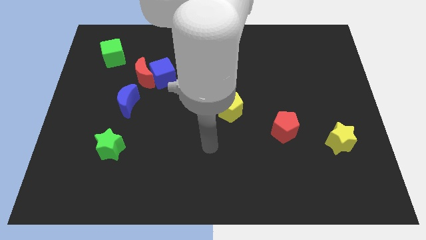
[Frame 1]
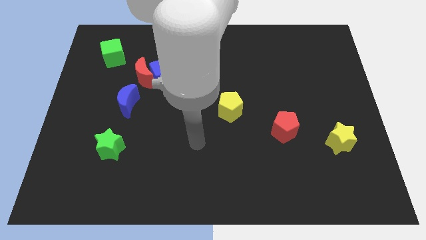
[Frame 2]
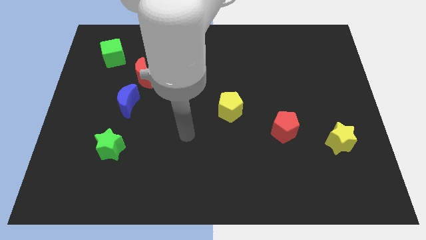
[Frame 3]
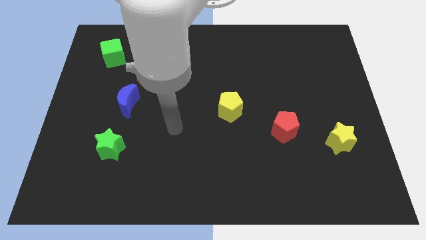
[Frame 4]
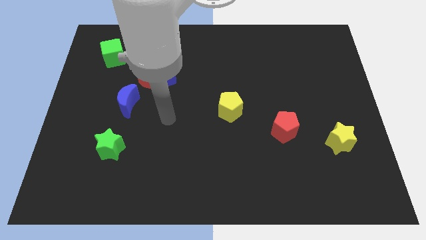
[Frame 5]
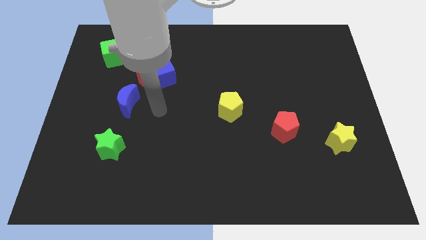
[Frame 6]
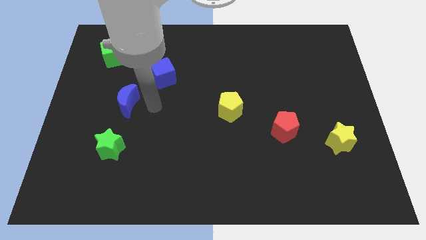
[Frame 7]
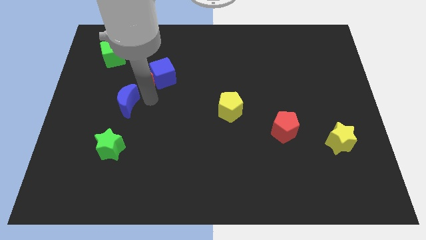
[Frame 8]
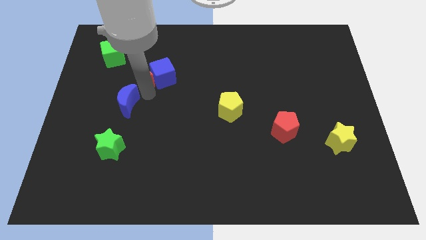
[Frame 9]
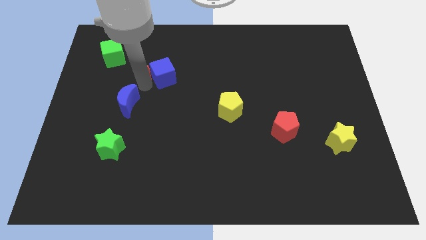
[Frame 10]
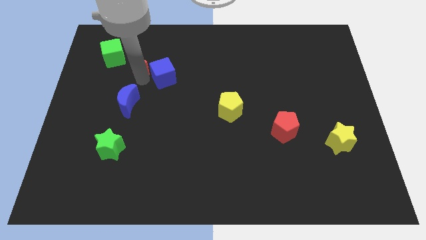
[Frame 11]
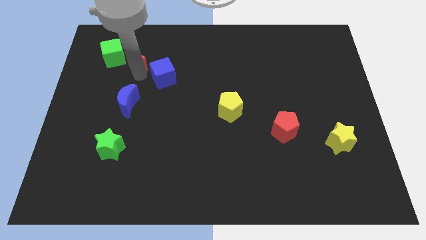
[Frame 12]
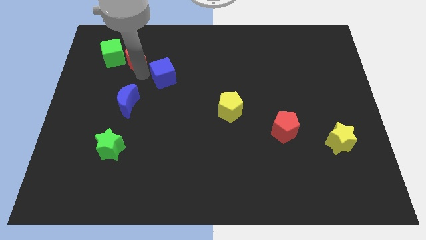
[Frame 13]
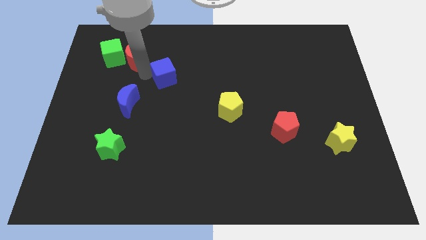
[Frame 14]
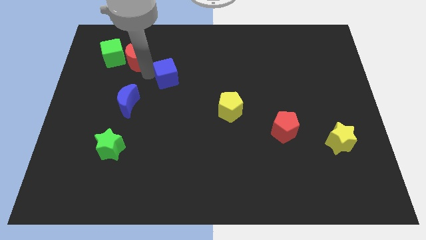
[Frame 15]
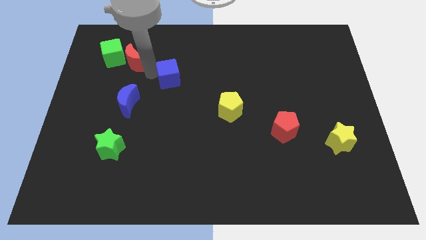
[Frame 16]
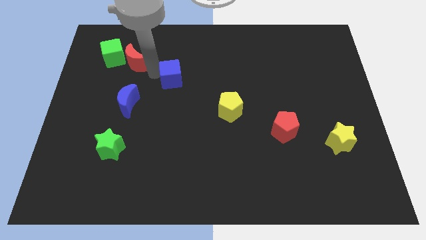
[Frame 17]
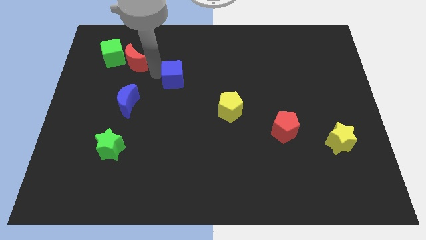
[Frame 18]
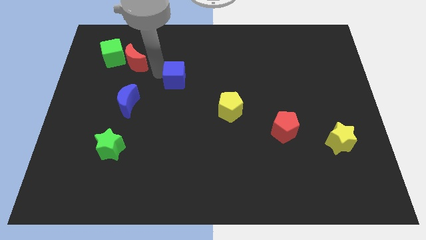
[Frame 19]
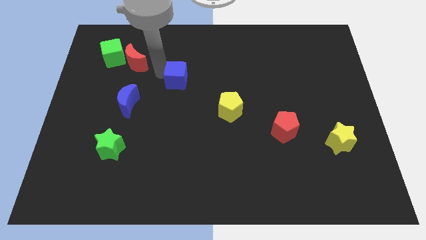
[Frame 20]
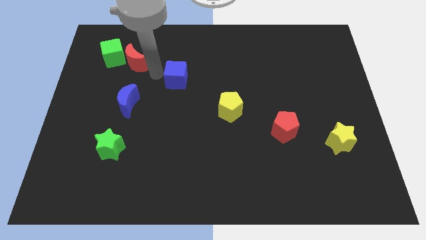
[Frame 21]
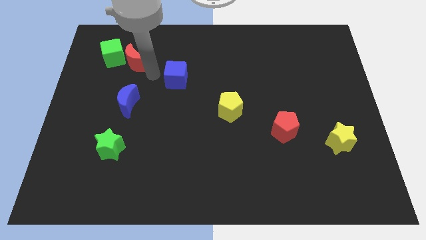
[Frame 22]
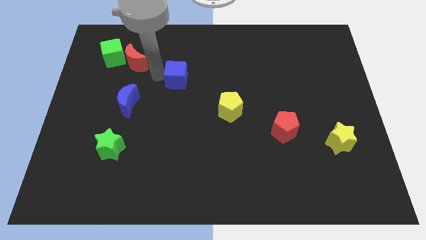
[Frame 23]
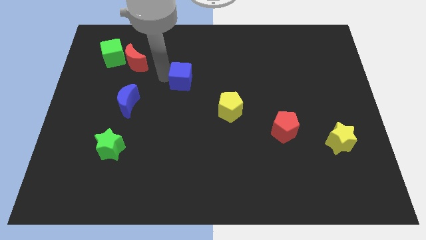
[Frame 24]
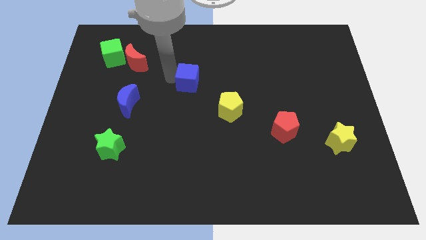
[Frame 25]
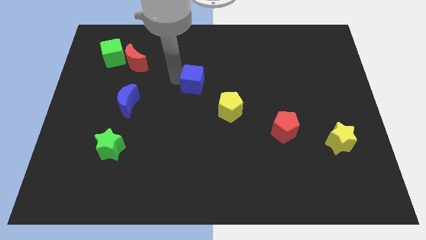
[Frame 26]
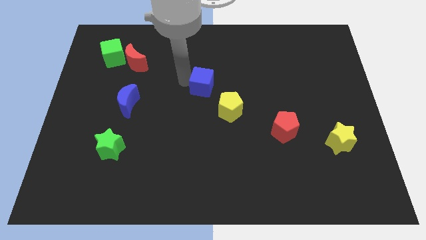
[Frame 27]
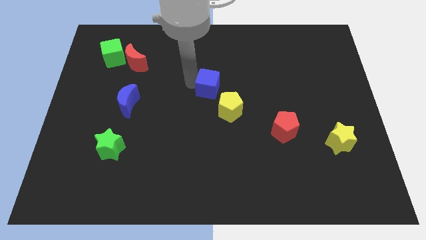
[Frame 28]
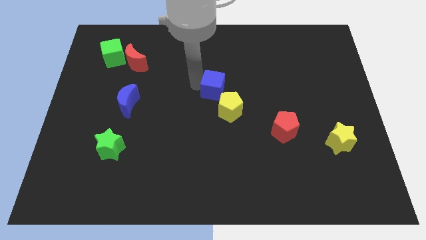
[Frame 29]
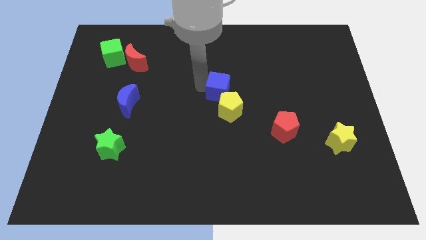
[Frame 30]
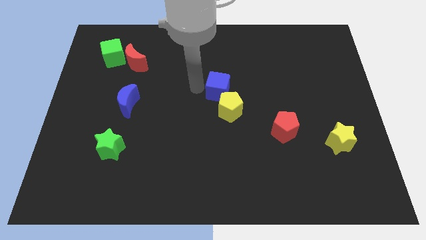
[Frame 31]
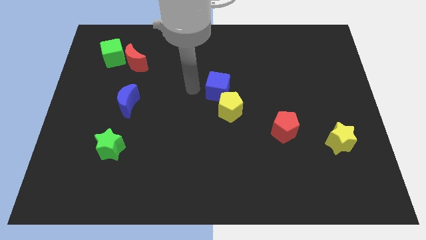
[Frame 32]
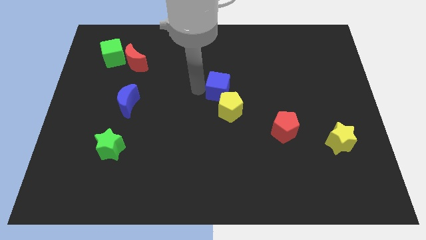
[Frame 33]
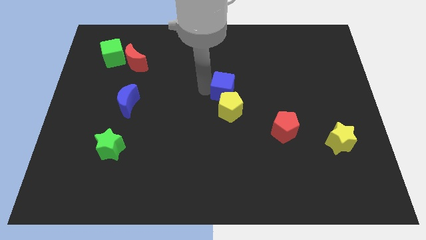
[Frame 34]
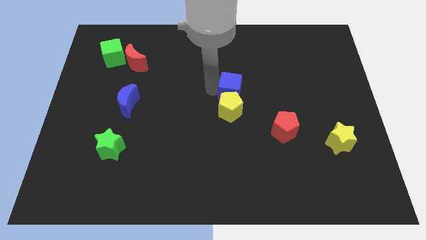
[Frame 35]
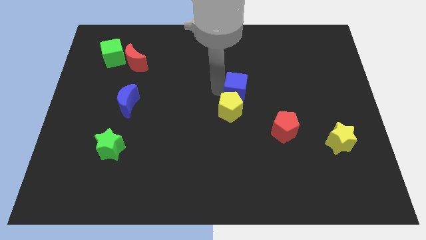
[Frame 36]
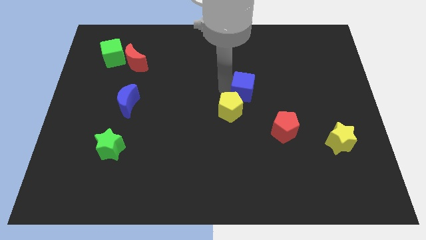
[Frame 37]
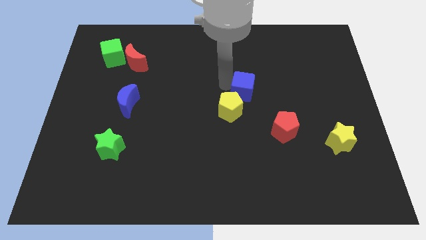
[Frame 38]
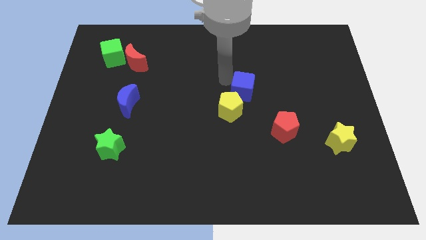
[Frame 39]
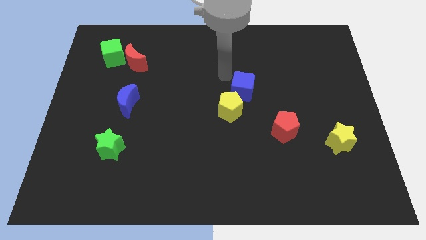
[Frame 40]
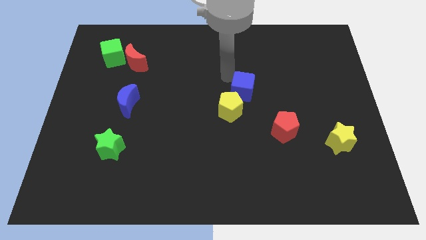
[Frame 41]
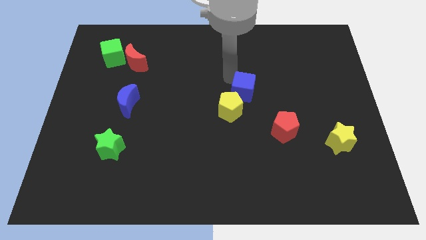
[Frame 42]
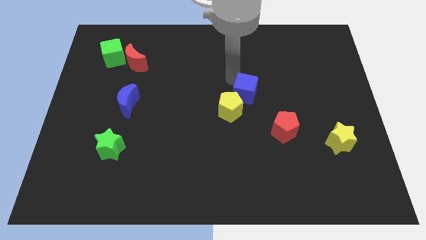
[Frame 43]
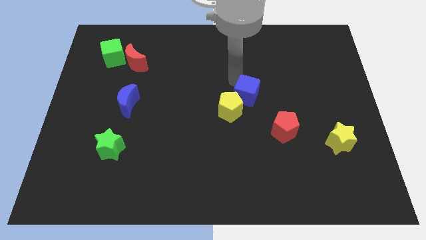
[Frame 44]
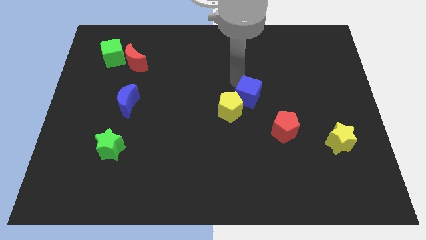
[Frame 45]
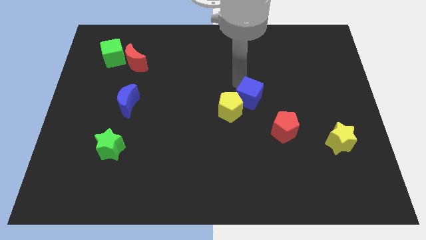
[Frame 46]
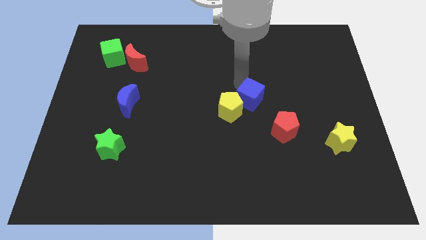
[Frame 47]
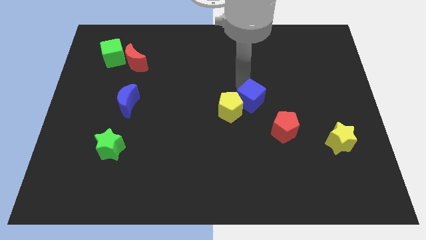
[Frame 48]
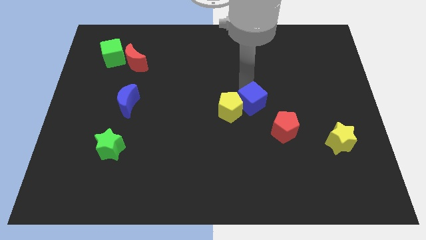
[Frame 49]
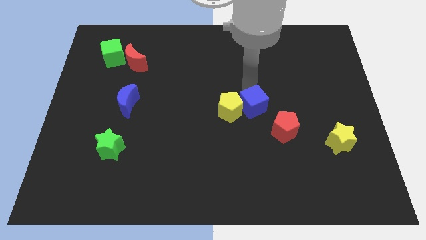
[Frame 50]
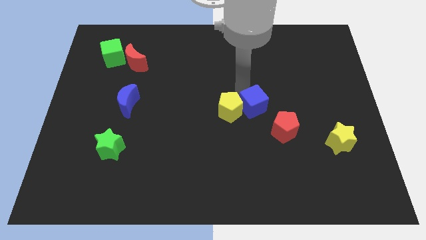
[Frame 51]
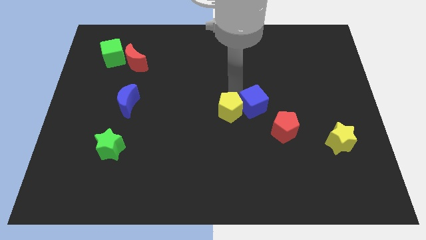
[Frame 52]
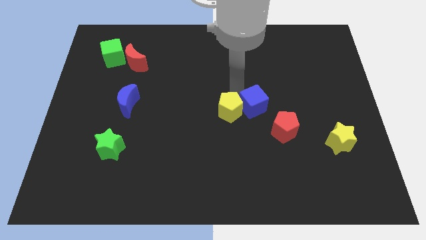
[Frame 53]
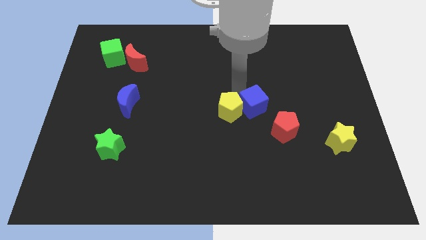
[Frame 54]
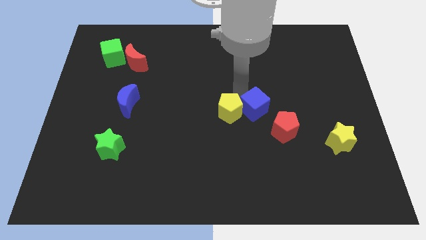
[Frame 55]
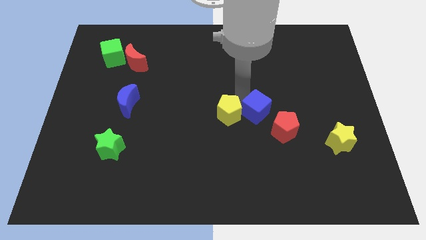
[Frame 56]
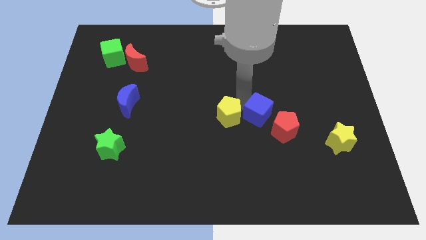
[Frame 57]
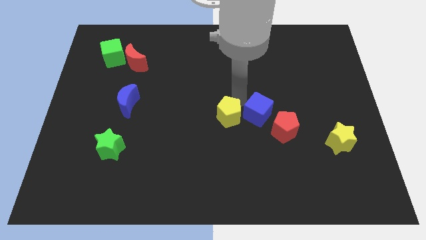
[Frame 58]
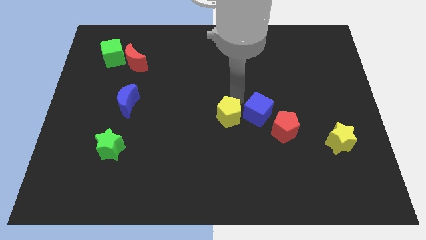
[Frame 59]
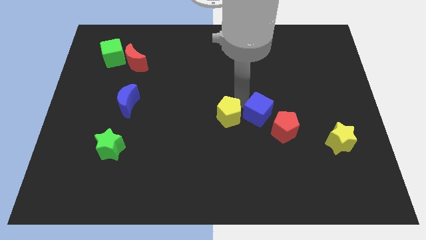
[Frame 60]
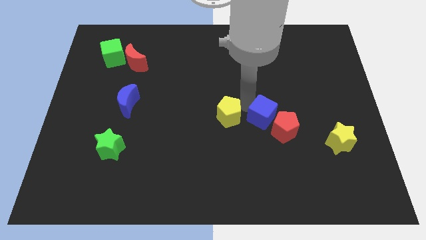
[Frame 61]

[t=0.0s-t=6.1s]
move the blue cube to the red pentagon

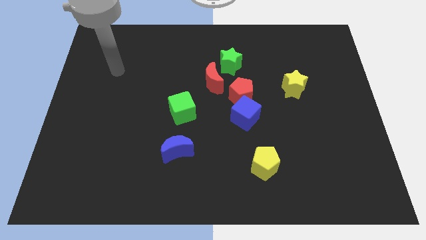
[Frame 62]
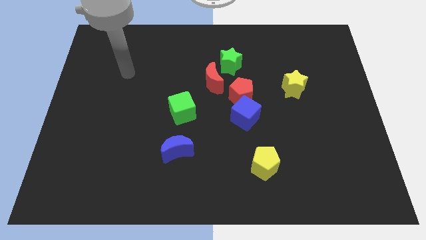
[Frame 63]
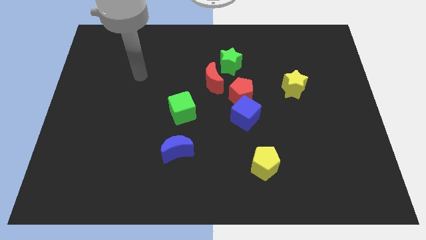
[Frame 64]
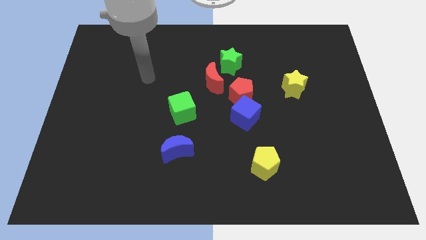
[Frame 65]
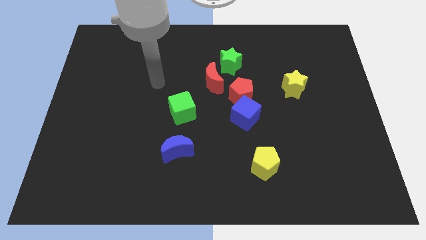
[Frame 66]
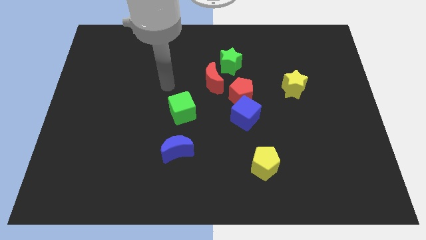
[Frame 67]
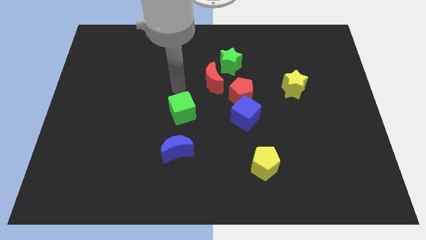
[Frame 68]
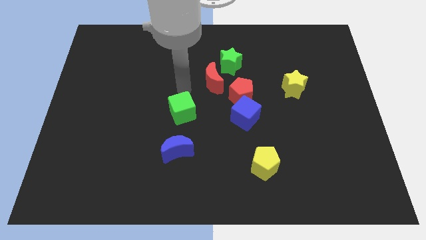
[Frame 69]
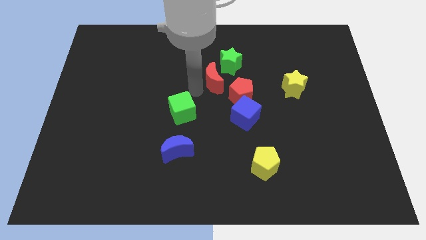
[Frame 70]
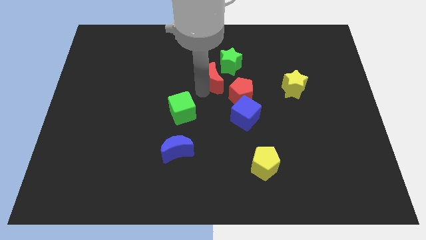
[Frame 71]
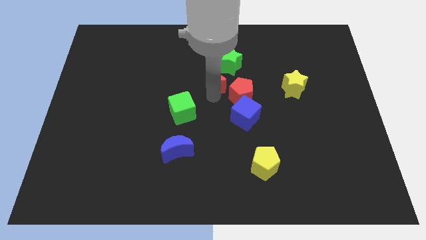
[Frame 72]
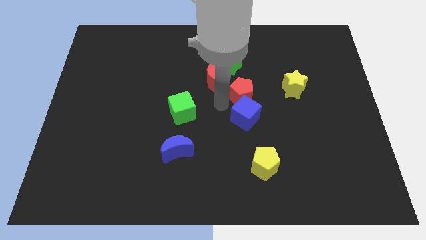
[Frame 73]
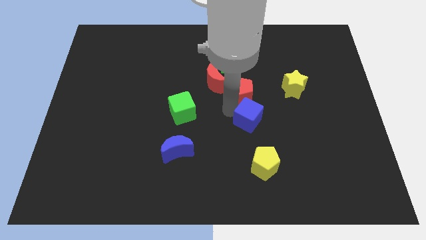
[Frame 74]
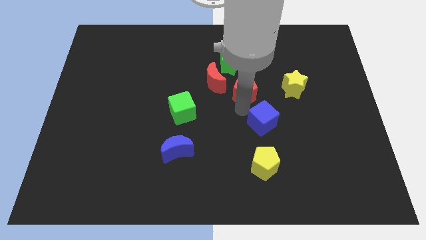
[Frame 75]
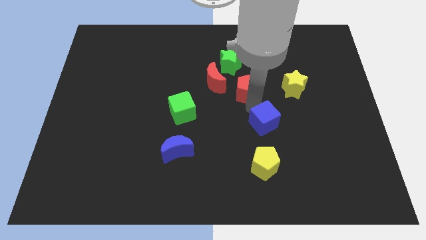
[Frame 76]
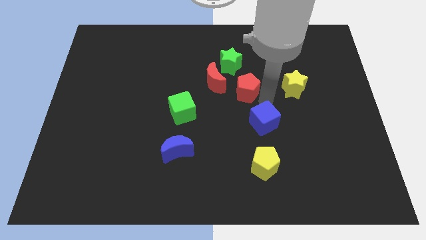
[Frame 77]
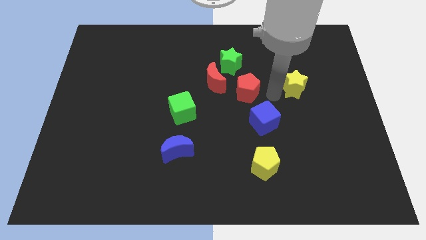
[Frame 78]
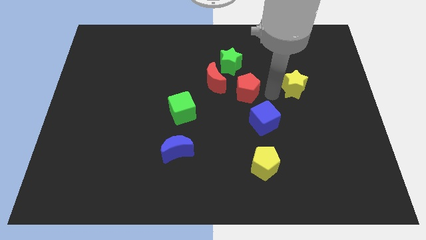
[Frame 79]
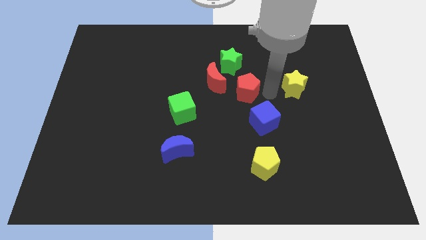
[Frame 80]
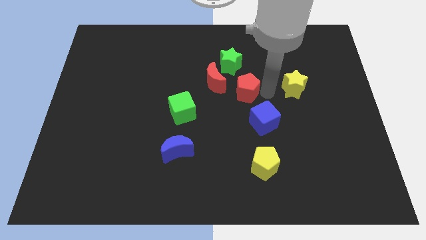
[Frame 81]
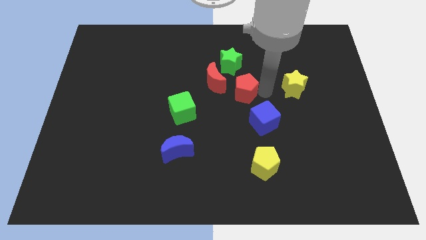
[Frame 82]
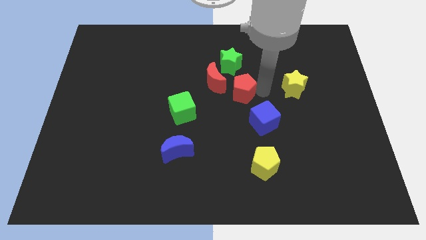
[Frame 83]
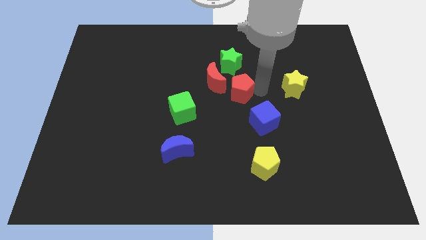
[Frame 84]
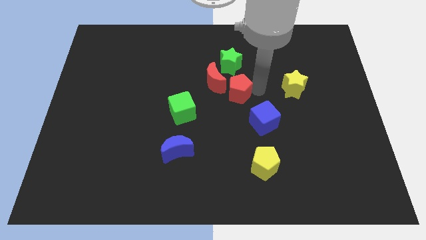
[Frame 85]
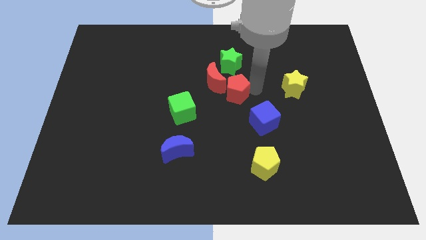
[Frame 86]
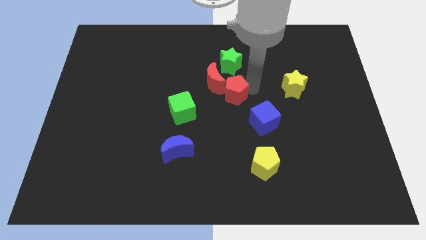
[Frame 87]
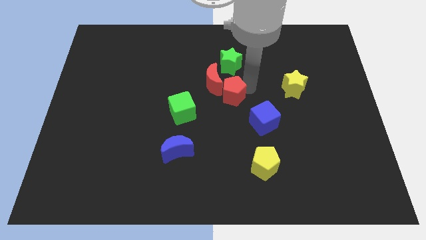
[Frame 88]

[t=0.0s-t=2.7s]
push the red pentagon close to the red moon
